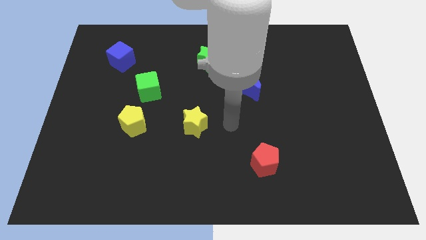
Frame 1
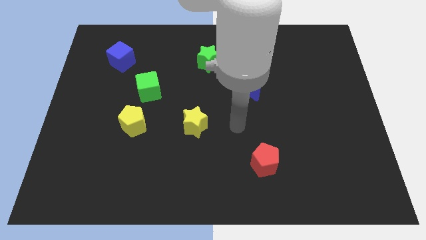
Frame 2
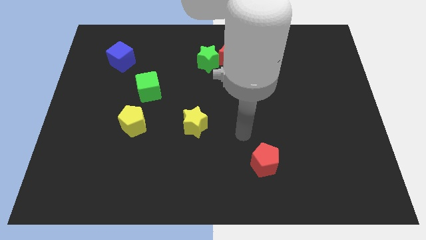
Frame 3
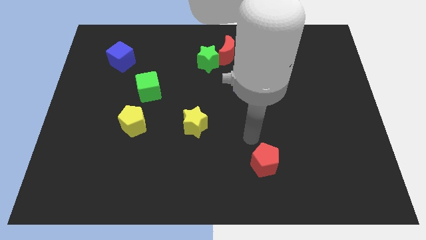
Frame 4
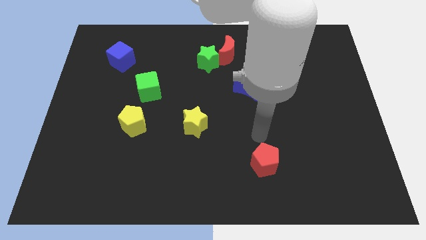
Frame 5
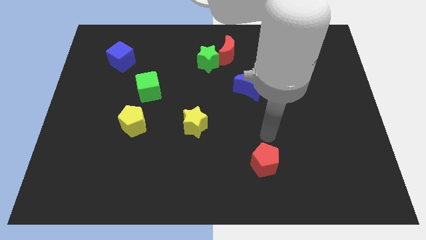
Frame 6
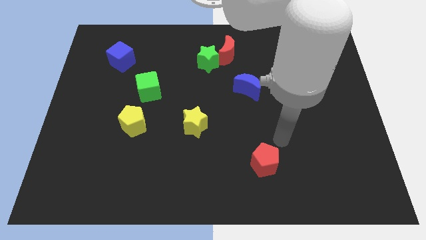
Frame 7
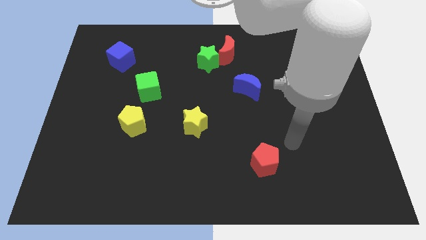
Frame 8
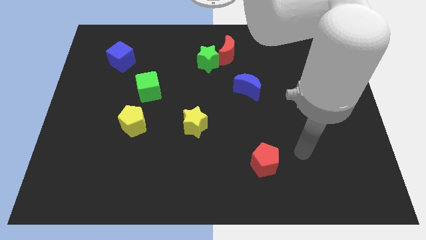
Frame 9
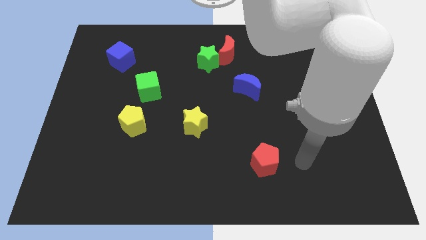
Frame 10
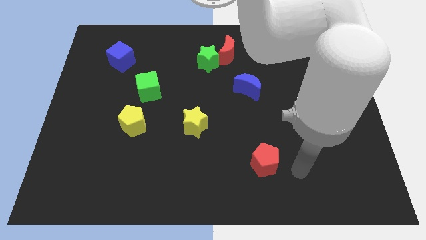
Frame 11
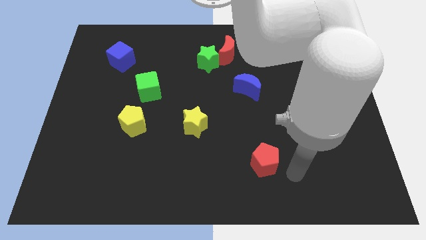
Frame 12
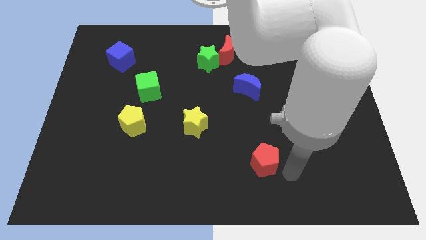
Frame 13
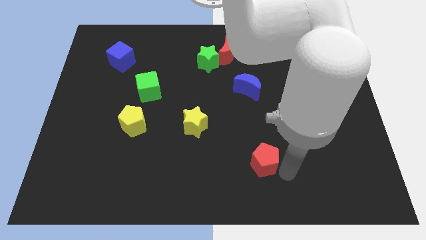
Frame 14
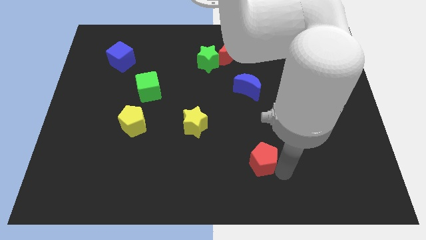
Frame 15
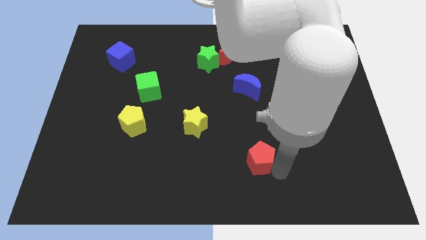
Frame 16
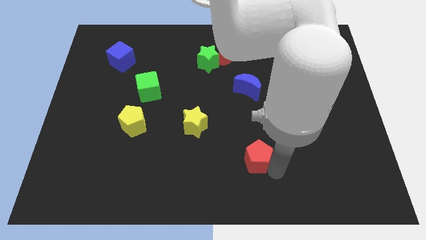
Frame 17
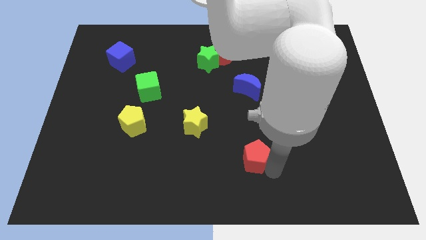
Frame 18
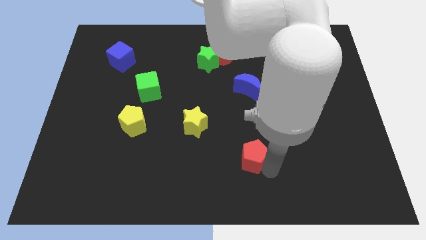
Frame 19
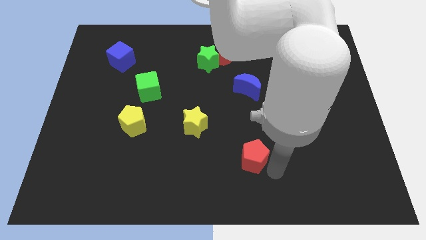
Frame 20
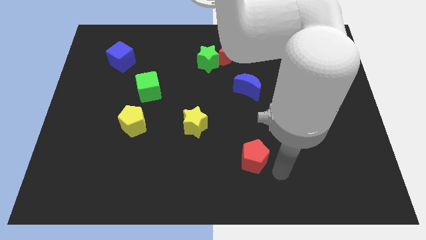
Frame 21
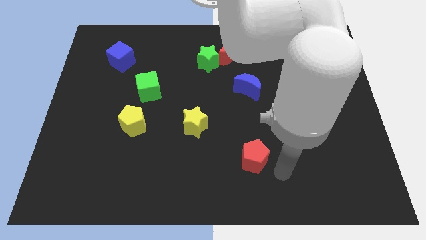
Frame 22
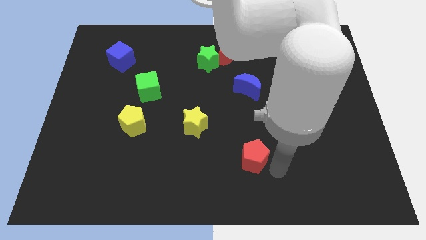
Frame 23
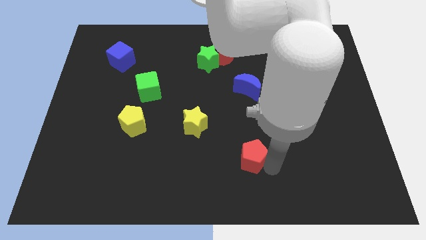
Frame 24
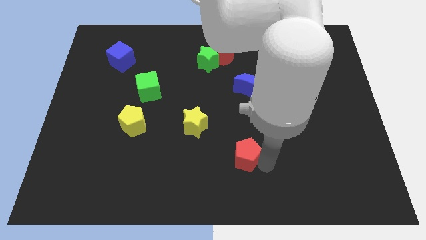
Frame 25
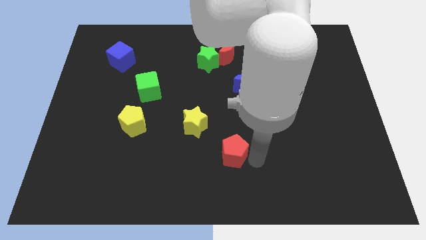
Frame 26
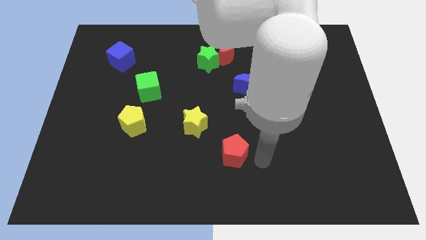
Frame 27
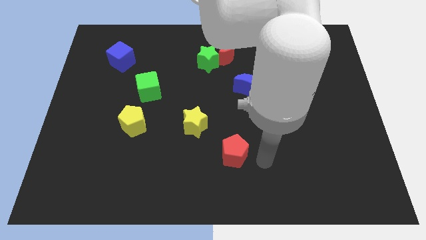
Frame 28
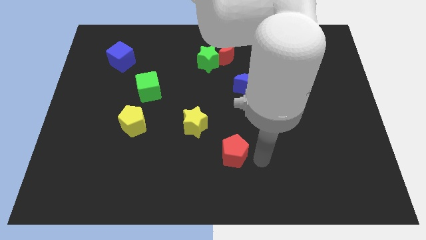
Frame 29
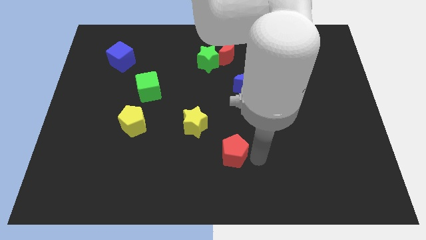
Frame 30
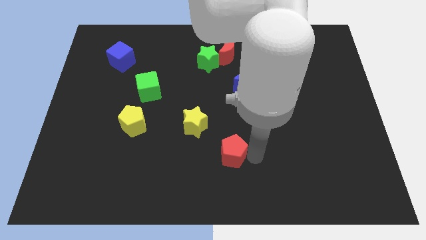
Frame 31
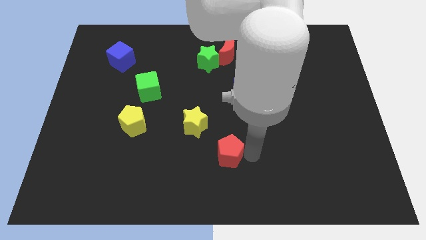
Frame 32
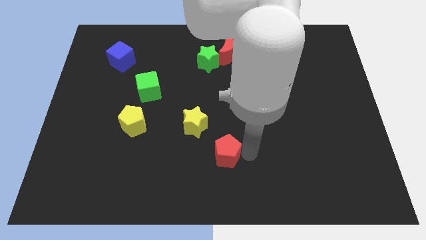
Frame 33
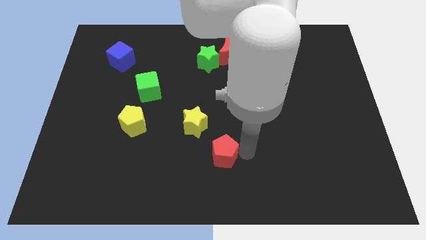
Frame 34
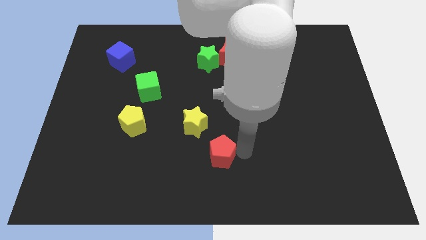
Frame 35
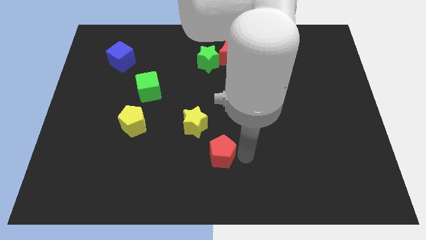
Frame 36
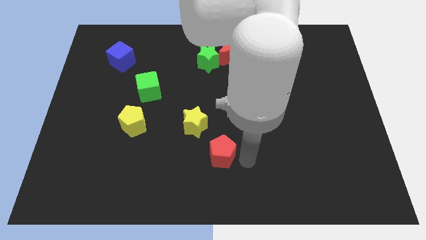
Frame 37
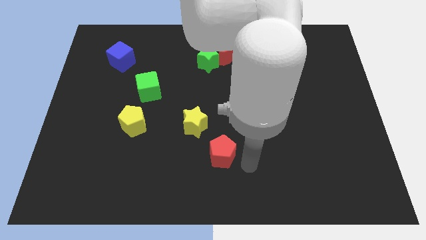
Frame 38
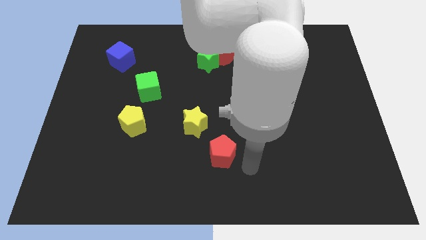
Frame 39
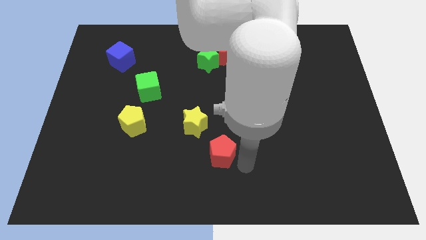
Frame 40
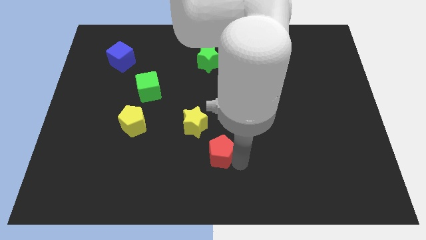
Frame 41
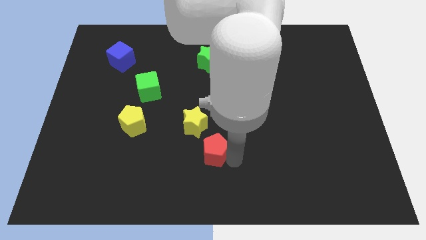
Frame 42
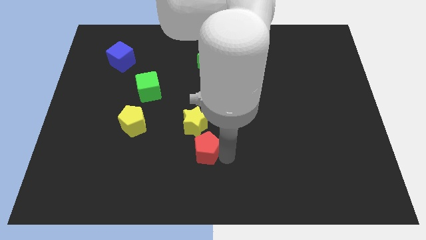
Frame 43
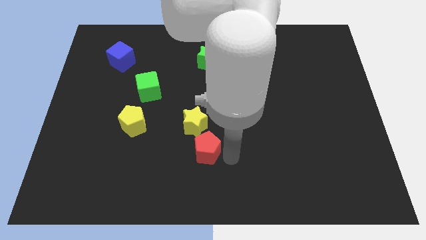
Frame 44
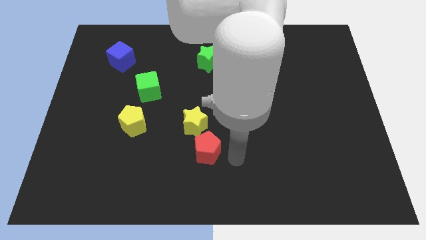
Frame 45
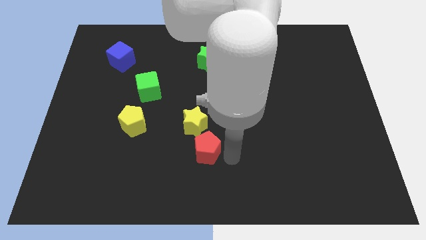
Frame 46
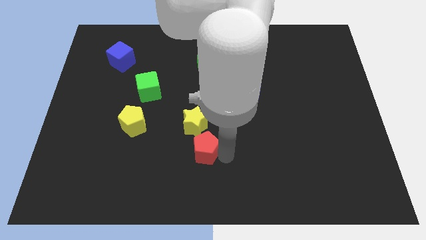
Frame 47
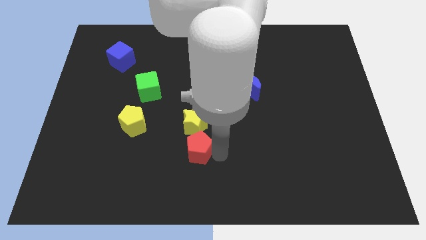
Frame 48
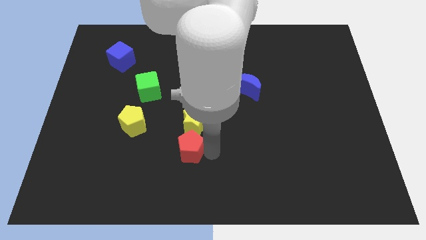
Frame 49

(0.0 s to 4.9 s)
slide the red pentagon diagonally down and to the left of the yellow star

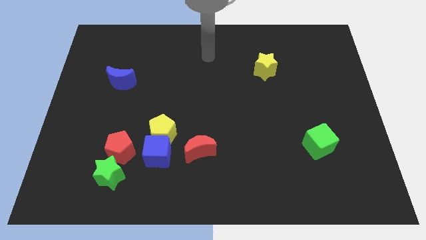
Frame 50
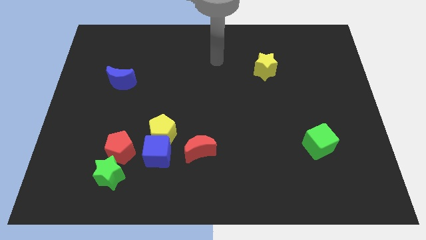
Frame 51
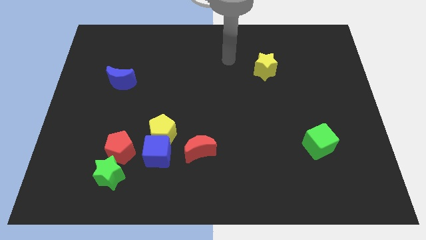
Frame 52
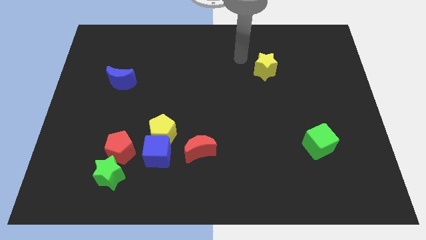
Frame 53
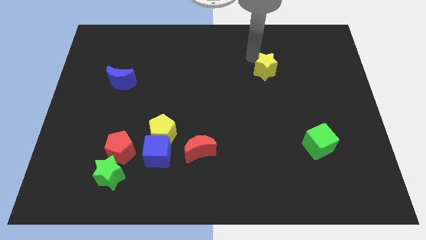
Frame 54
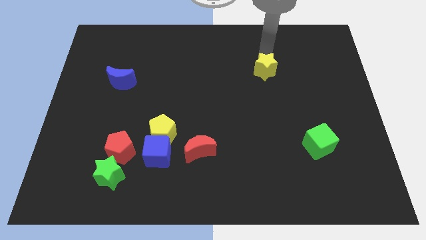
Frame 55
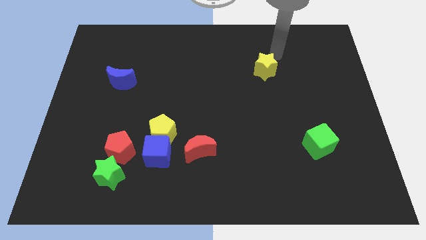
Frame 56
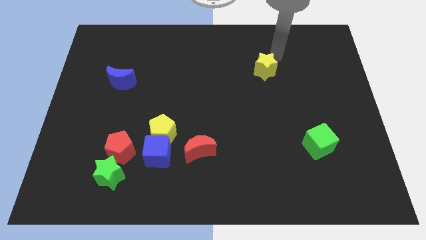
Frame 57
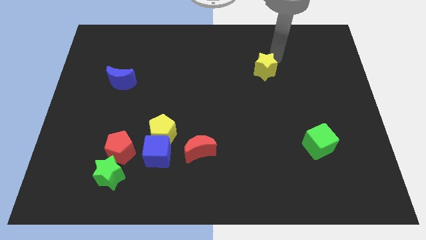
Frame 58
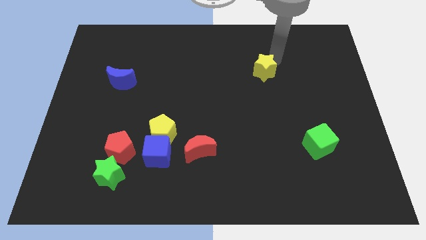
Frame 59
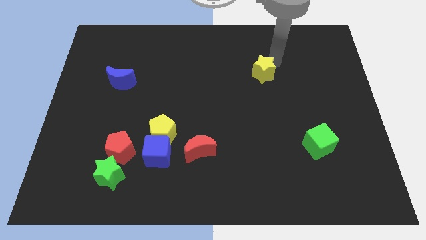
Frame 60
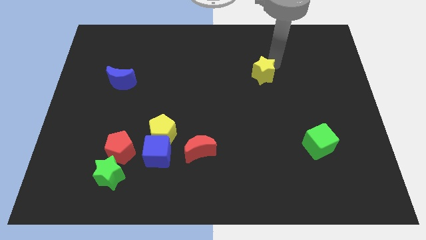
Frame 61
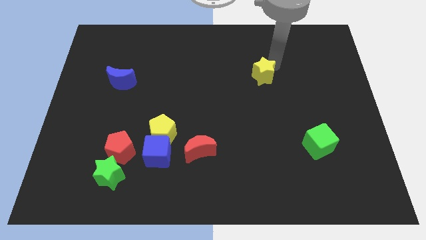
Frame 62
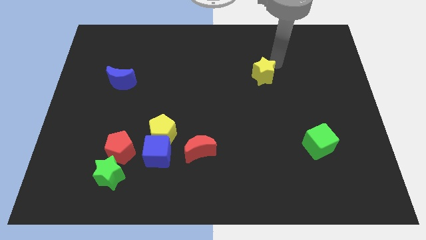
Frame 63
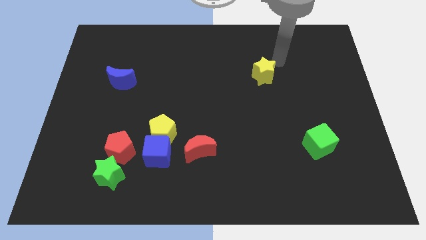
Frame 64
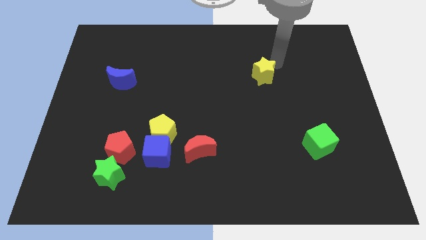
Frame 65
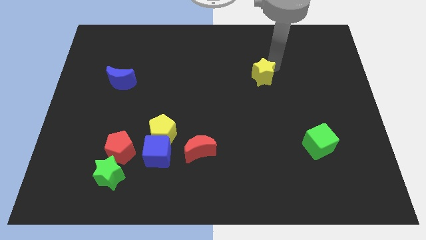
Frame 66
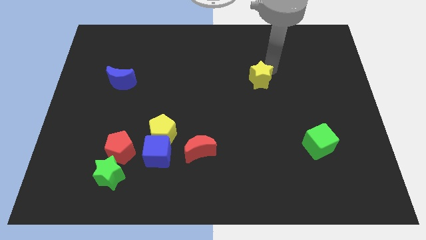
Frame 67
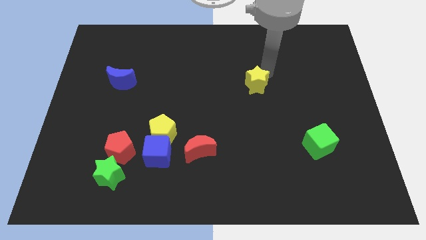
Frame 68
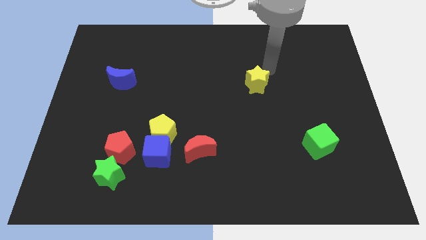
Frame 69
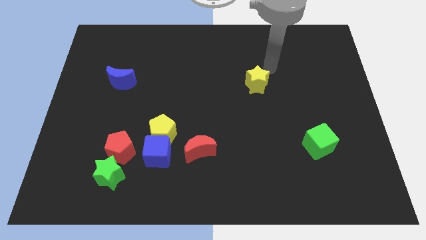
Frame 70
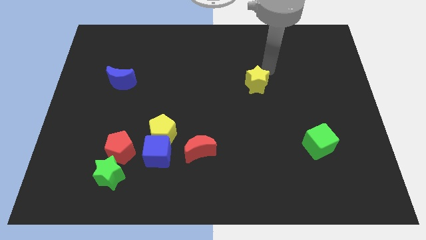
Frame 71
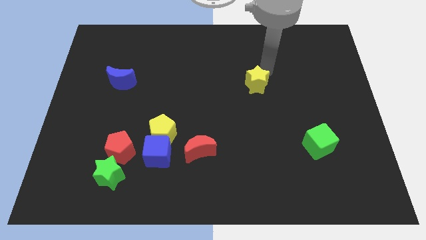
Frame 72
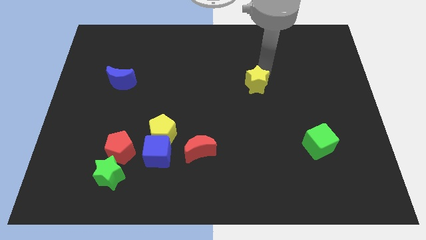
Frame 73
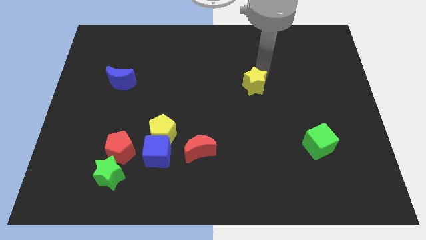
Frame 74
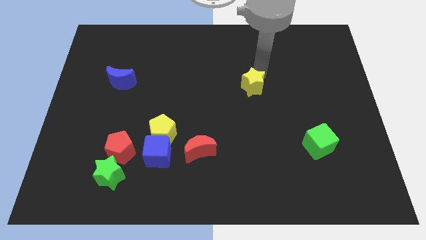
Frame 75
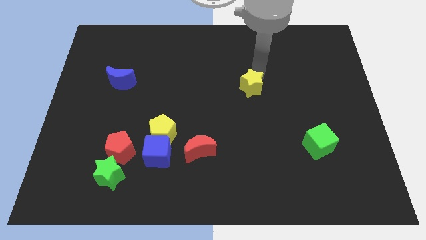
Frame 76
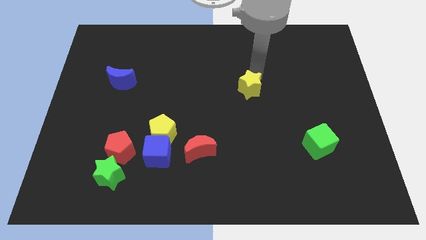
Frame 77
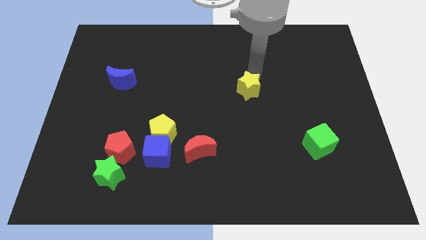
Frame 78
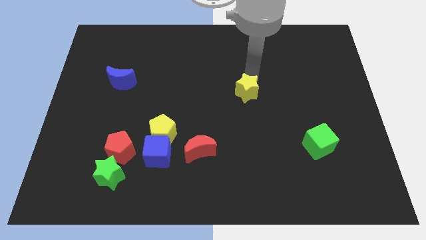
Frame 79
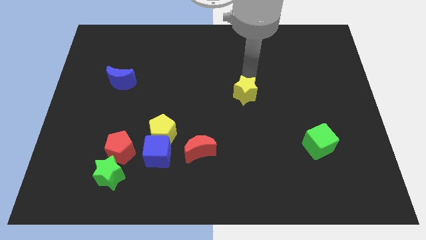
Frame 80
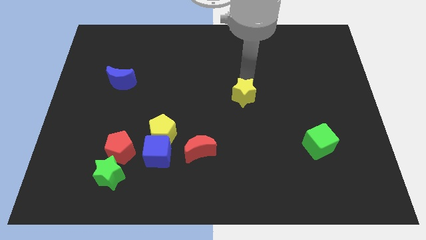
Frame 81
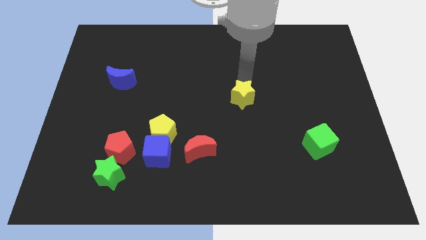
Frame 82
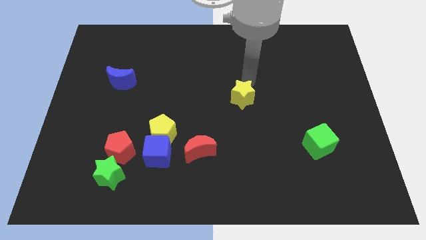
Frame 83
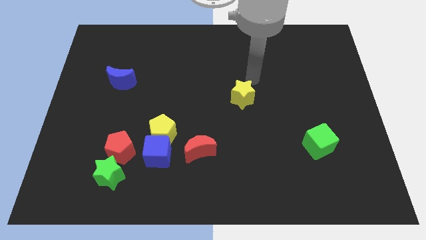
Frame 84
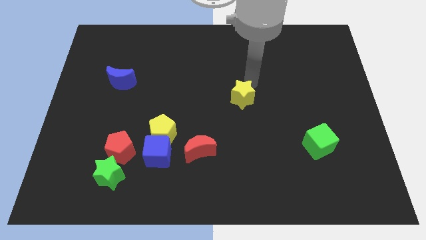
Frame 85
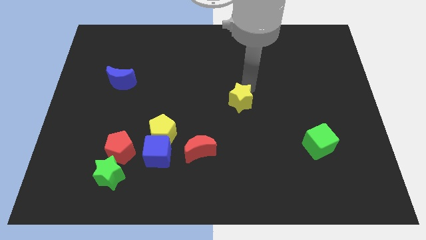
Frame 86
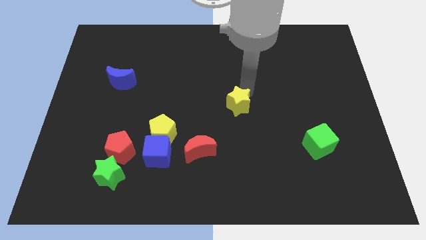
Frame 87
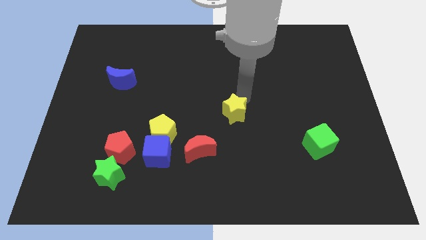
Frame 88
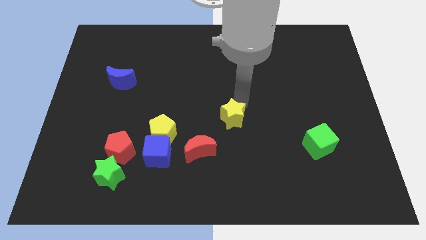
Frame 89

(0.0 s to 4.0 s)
slide the yellow star diagonally up and to the right of the red moon
